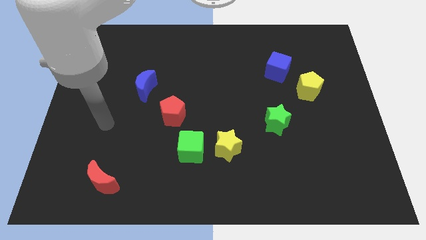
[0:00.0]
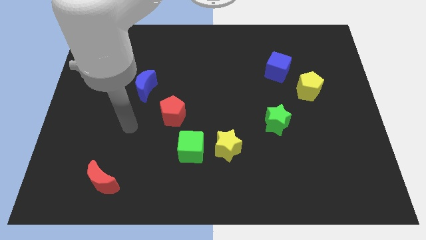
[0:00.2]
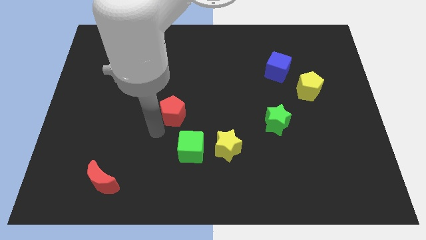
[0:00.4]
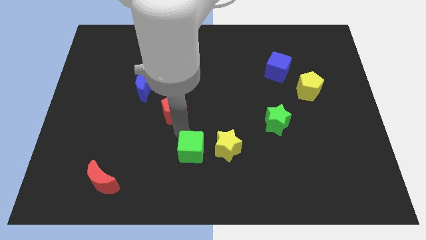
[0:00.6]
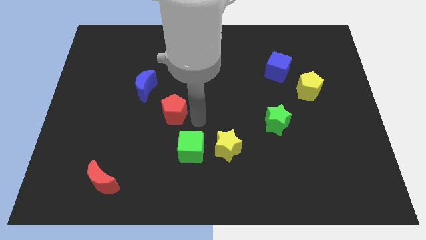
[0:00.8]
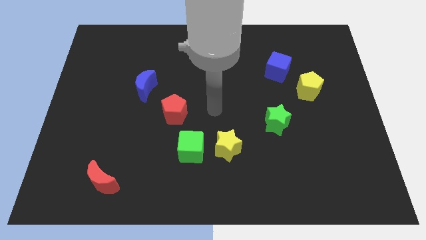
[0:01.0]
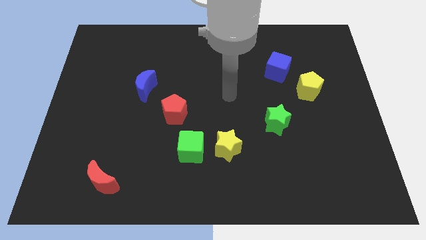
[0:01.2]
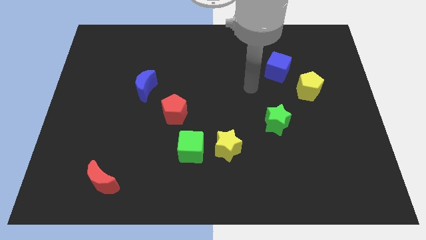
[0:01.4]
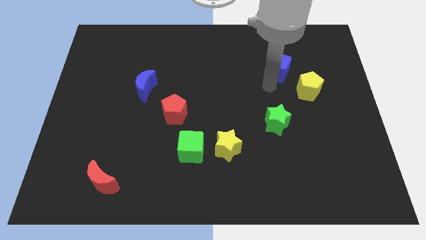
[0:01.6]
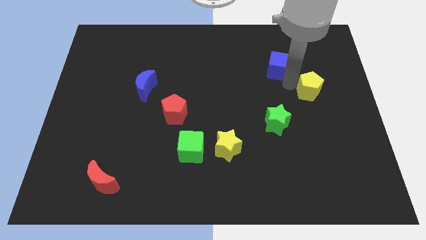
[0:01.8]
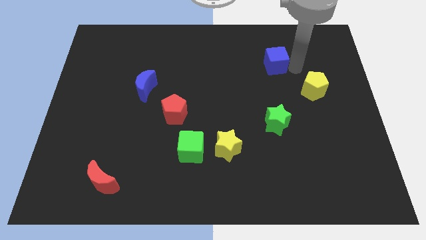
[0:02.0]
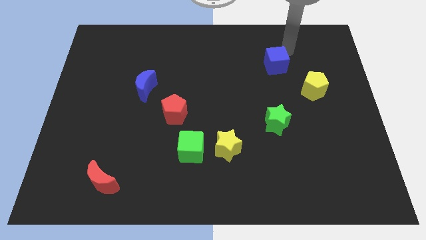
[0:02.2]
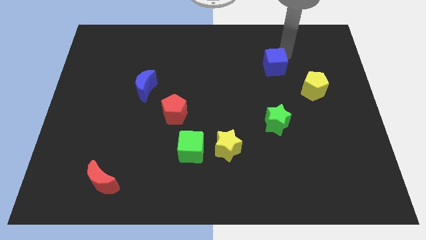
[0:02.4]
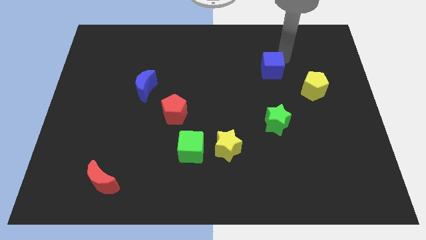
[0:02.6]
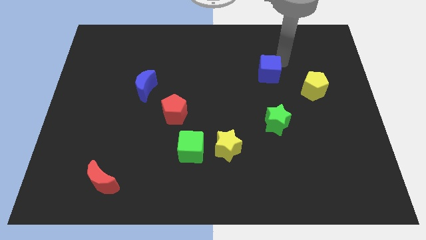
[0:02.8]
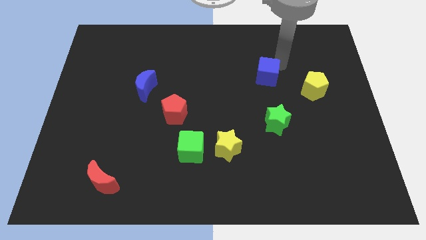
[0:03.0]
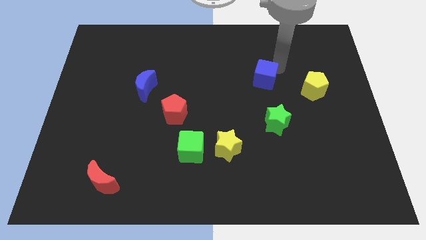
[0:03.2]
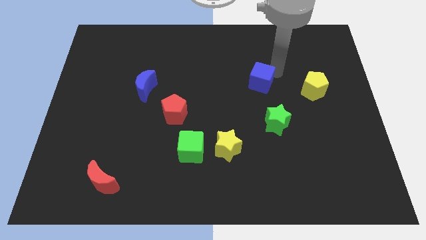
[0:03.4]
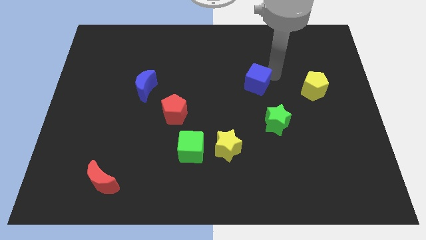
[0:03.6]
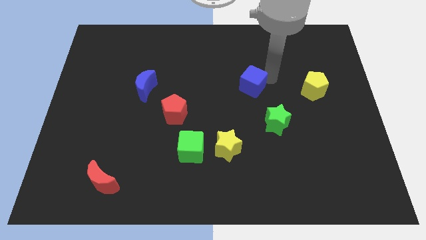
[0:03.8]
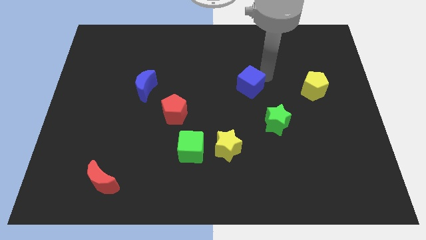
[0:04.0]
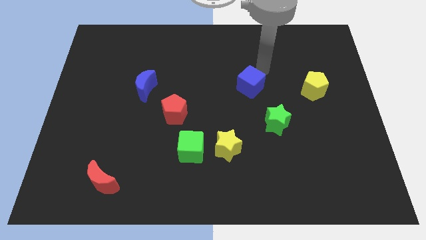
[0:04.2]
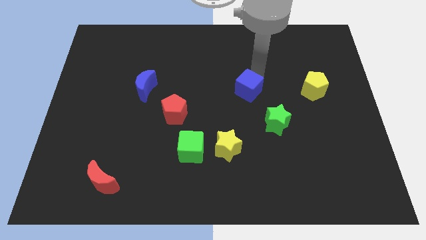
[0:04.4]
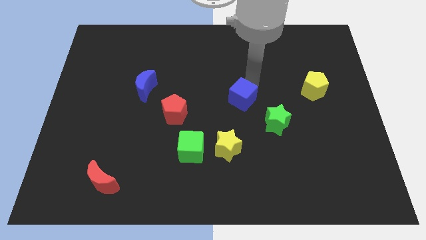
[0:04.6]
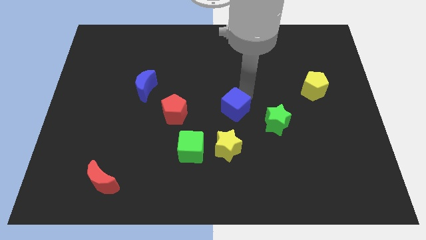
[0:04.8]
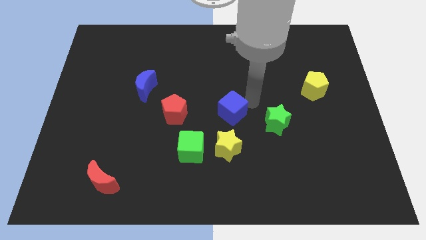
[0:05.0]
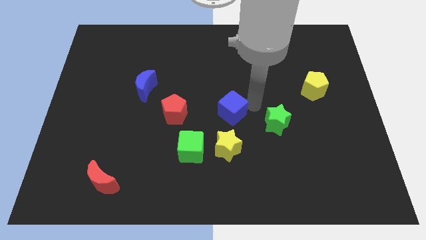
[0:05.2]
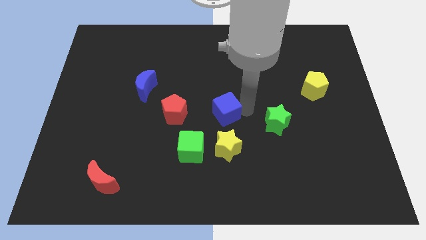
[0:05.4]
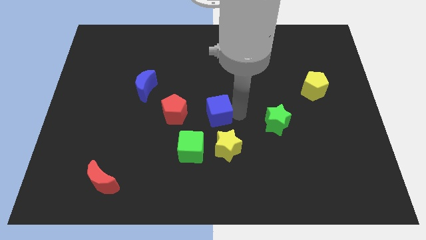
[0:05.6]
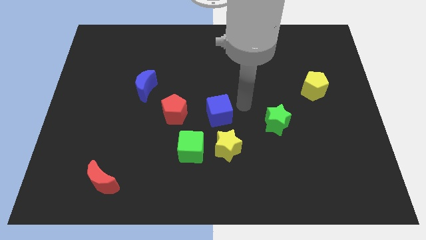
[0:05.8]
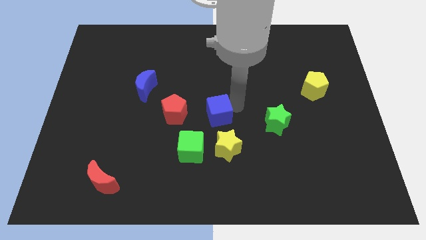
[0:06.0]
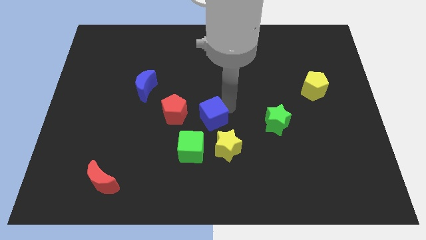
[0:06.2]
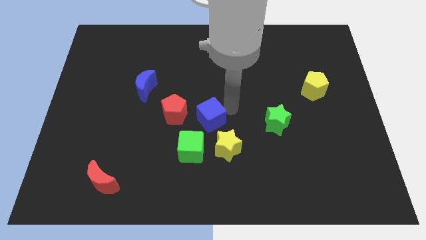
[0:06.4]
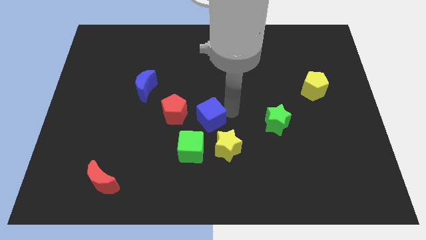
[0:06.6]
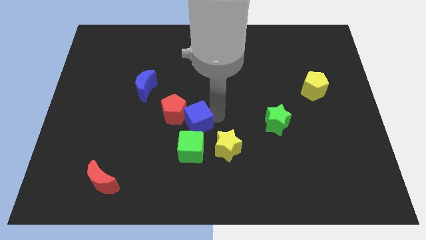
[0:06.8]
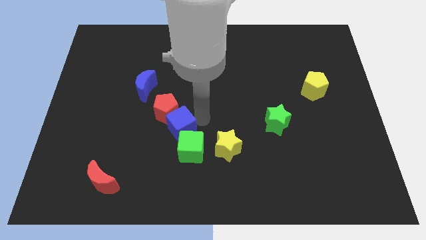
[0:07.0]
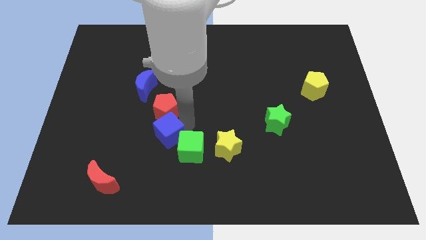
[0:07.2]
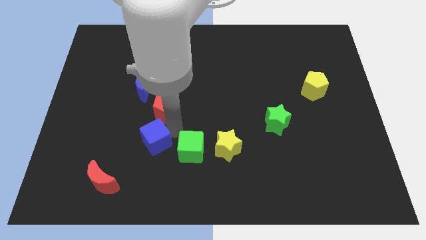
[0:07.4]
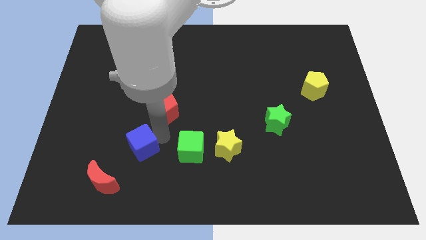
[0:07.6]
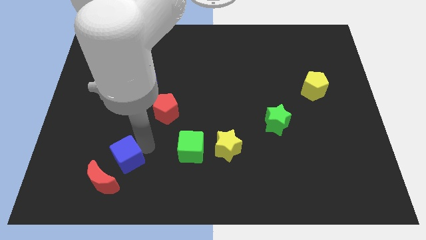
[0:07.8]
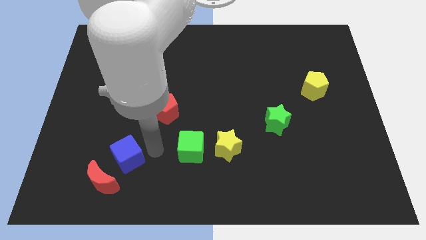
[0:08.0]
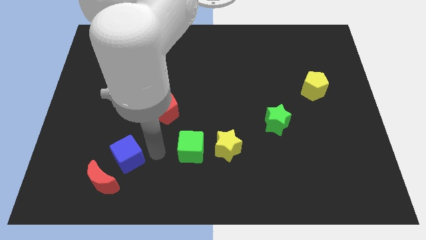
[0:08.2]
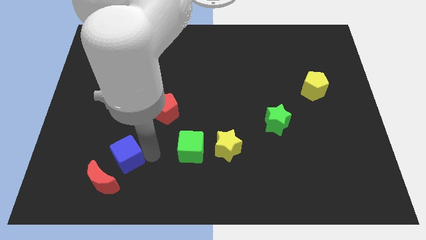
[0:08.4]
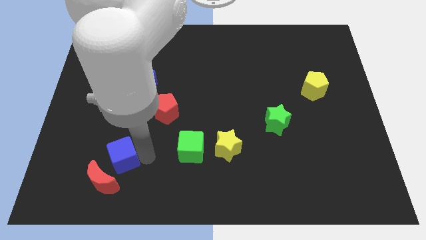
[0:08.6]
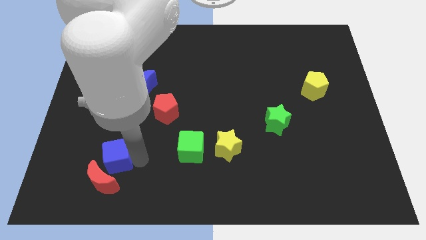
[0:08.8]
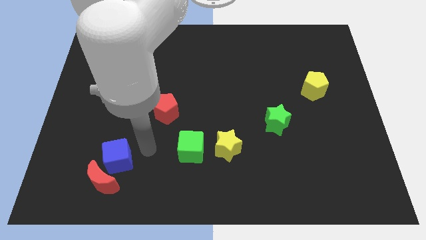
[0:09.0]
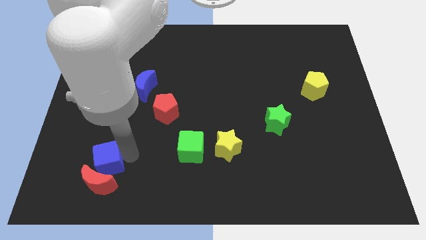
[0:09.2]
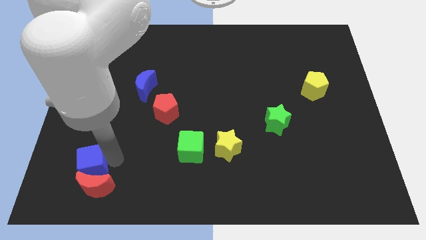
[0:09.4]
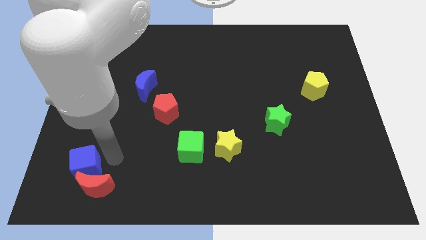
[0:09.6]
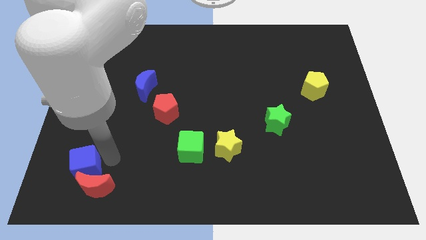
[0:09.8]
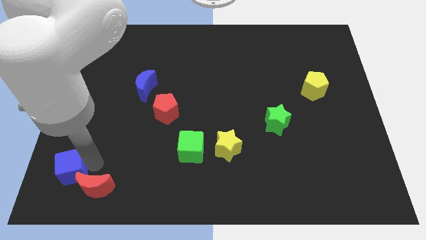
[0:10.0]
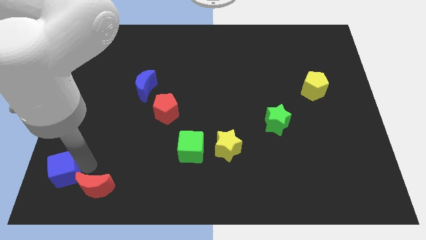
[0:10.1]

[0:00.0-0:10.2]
push the blue cube to the bottom left corner

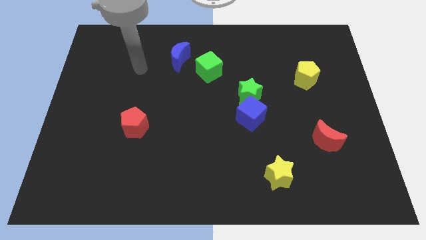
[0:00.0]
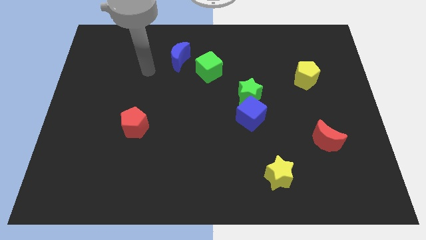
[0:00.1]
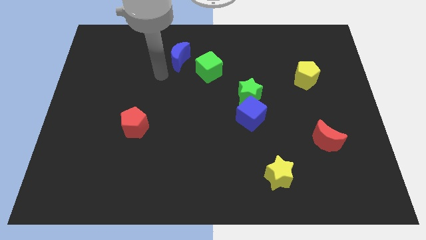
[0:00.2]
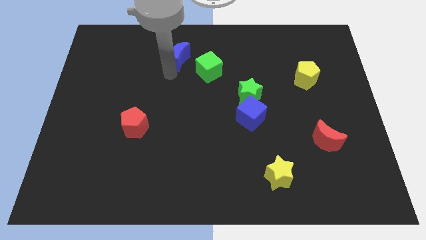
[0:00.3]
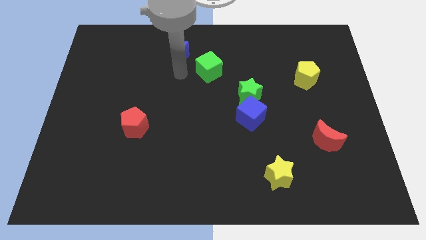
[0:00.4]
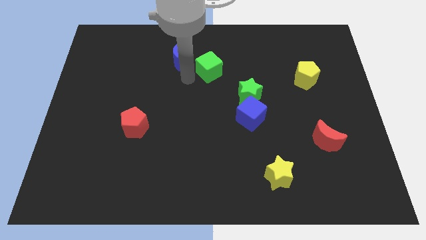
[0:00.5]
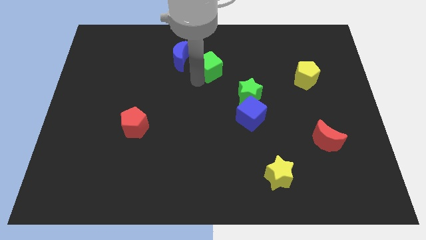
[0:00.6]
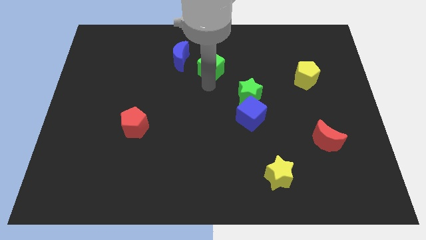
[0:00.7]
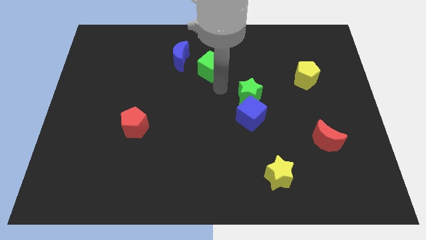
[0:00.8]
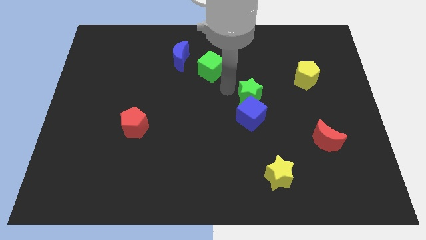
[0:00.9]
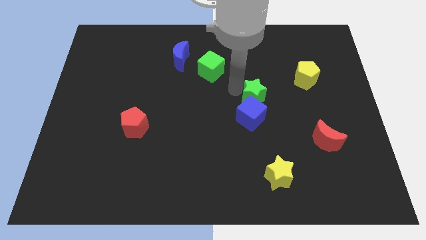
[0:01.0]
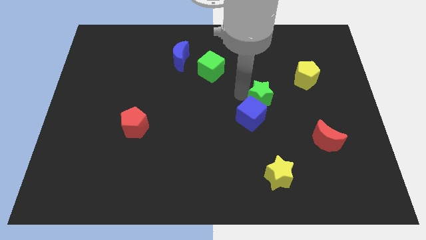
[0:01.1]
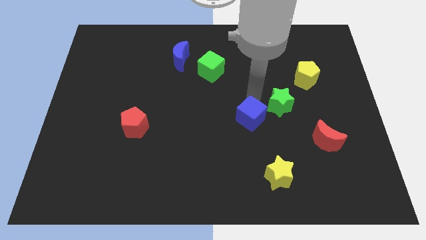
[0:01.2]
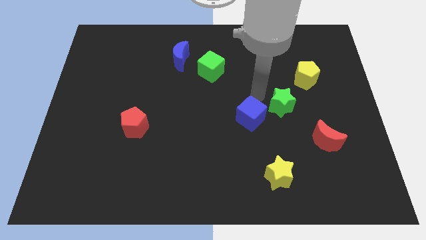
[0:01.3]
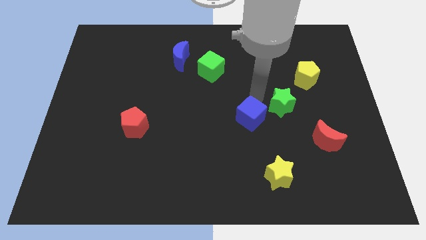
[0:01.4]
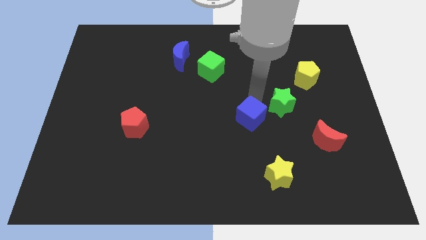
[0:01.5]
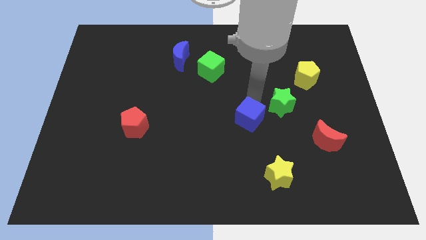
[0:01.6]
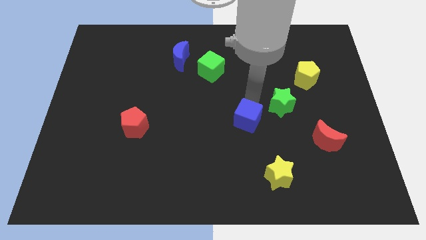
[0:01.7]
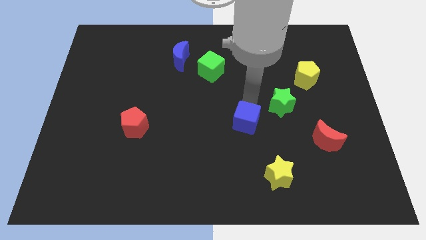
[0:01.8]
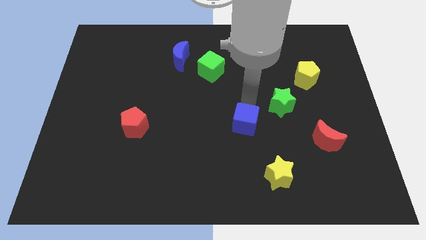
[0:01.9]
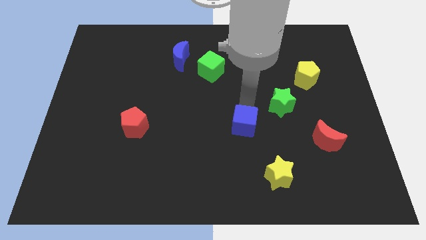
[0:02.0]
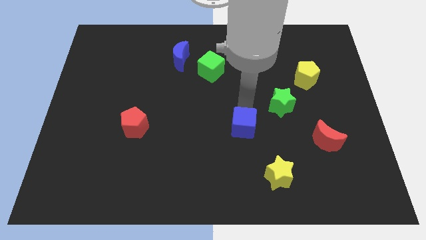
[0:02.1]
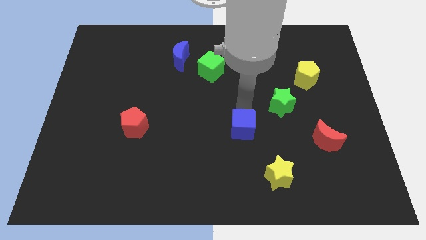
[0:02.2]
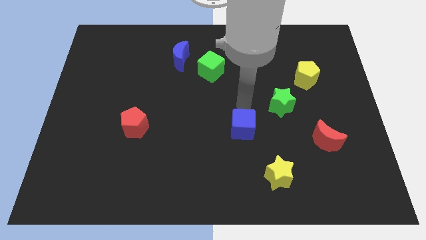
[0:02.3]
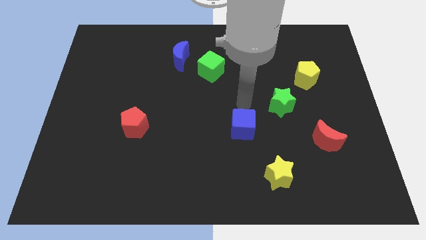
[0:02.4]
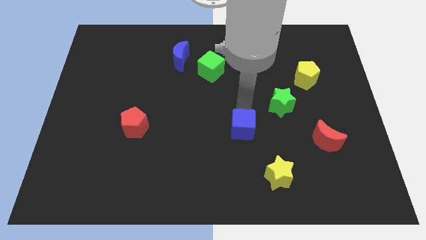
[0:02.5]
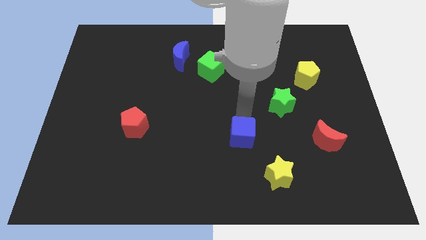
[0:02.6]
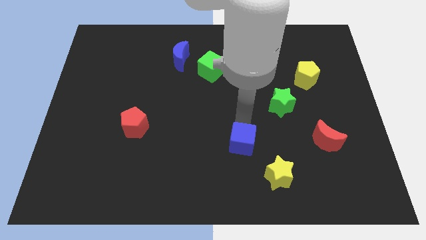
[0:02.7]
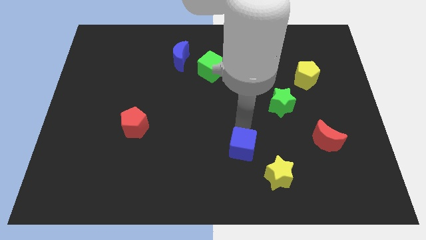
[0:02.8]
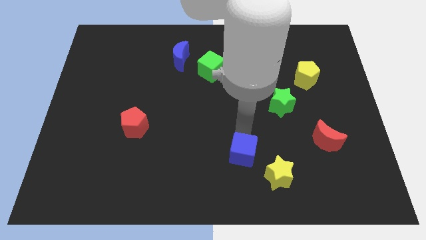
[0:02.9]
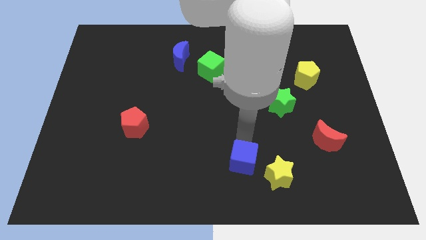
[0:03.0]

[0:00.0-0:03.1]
put the blue cube to the bottom side
